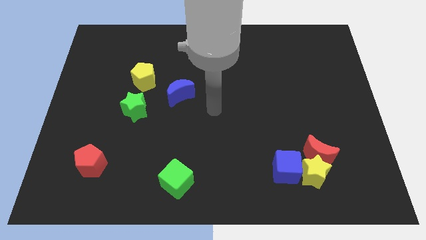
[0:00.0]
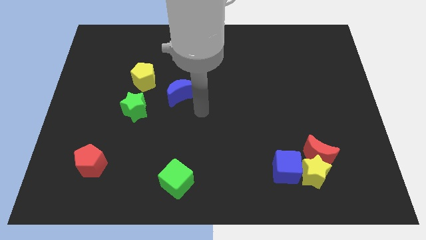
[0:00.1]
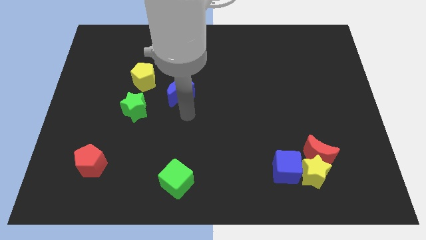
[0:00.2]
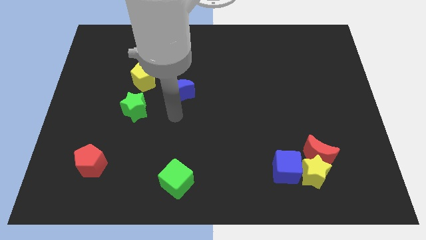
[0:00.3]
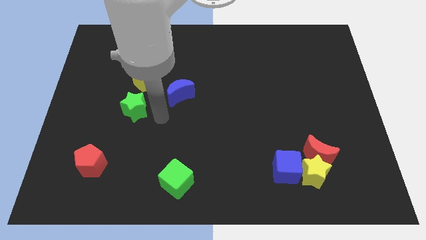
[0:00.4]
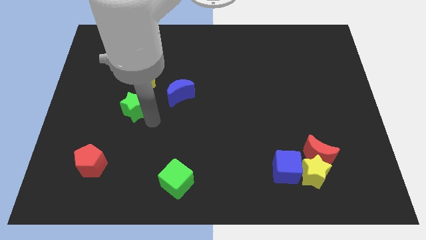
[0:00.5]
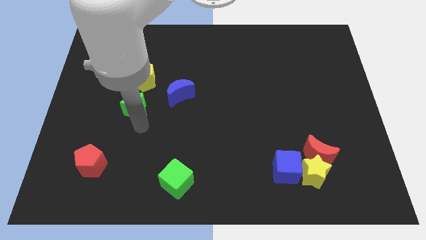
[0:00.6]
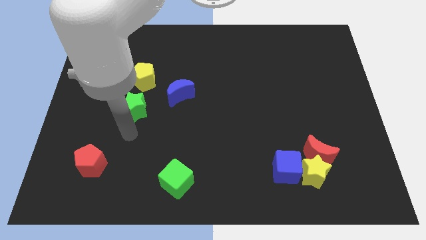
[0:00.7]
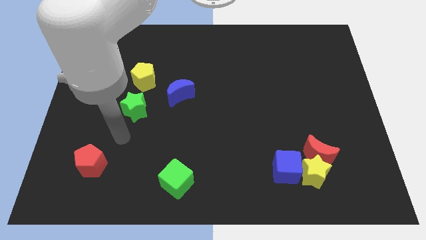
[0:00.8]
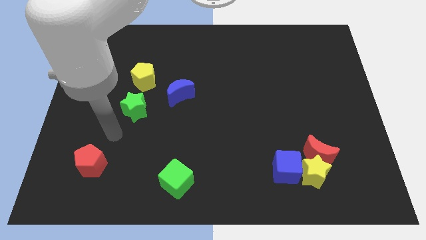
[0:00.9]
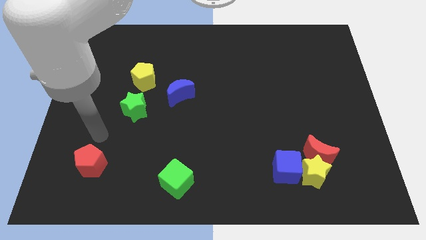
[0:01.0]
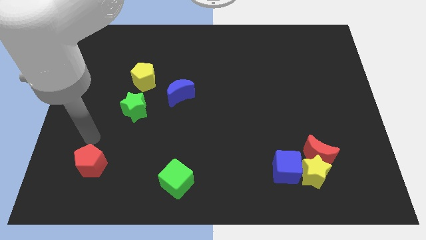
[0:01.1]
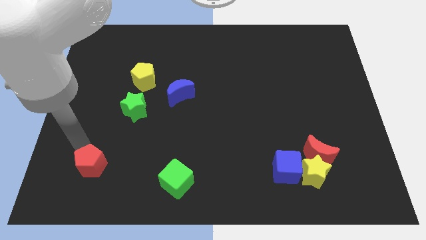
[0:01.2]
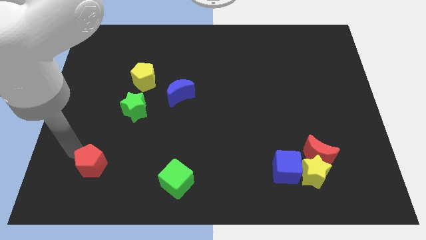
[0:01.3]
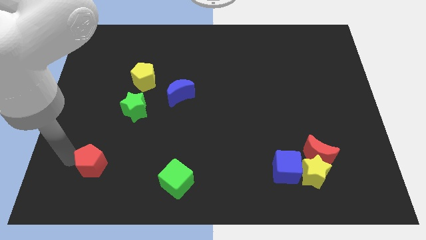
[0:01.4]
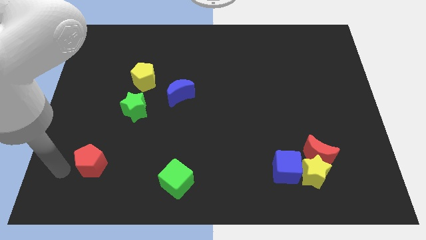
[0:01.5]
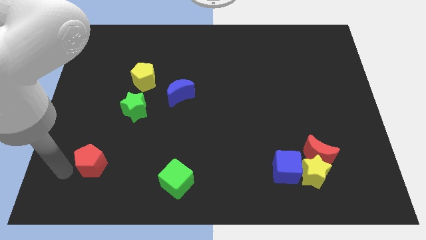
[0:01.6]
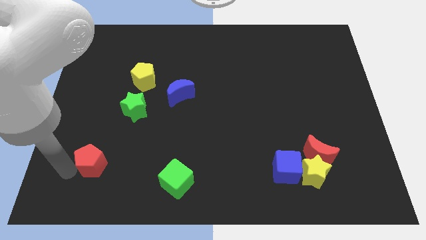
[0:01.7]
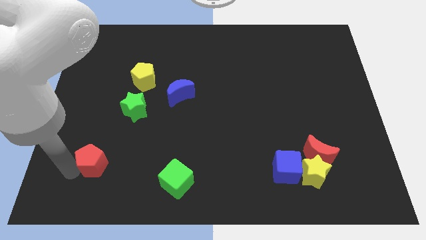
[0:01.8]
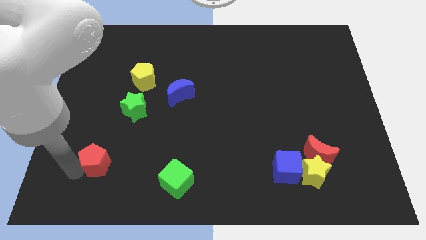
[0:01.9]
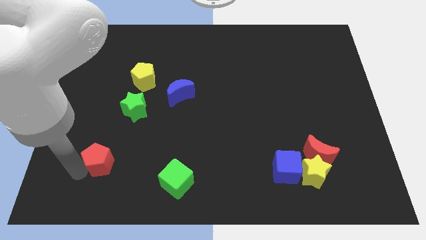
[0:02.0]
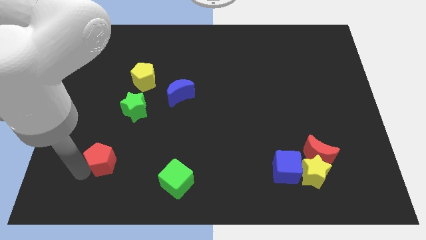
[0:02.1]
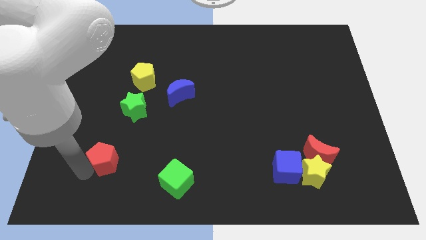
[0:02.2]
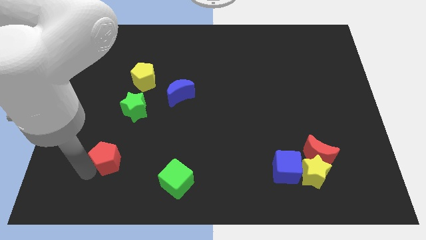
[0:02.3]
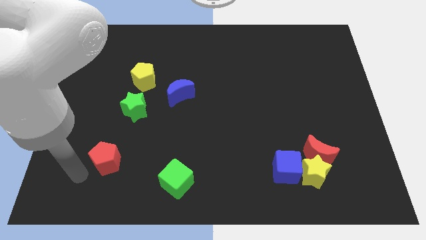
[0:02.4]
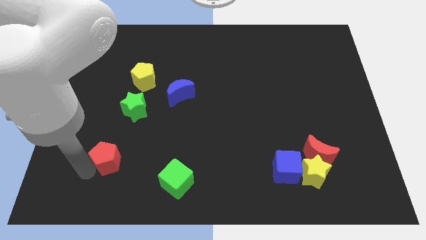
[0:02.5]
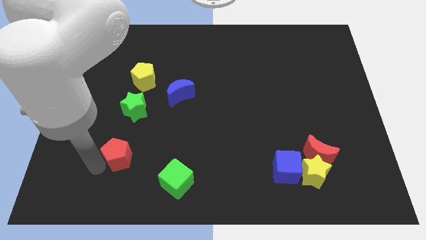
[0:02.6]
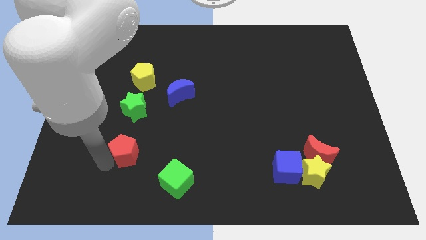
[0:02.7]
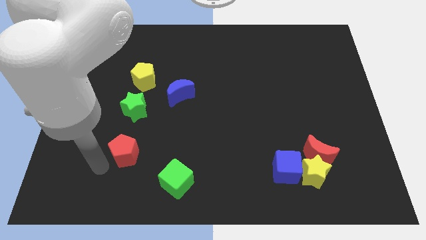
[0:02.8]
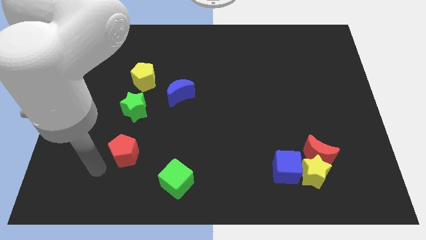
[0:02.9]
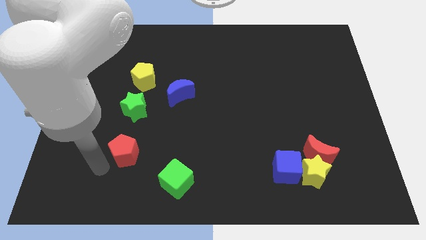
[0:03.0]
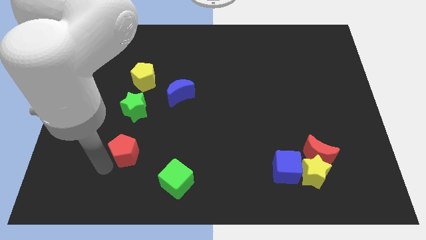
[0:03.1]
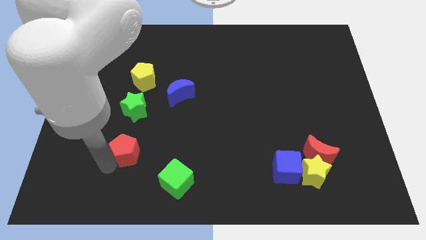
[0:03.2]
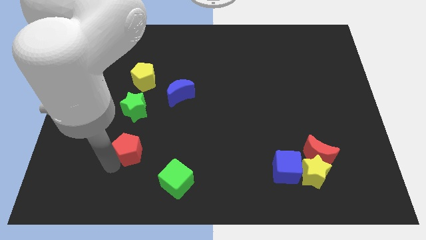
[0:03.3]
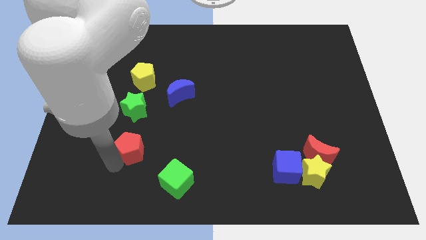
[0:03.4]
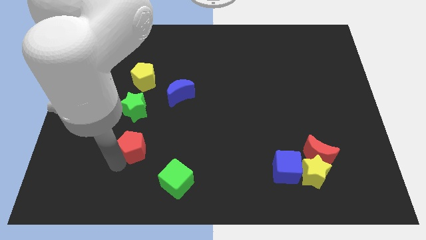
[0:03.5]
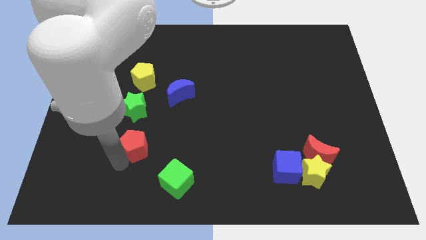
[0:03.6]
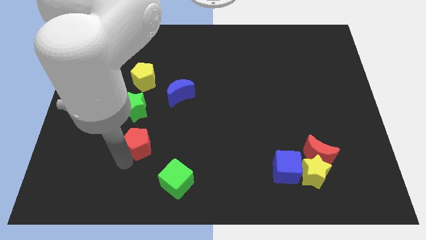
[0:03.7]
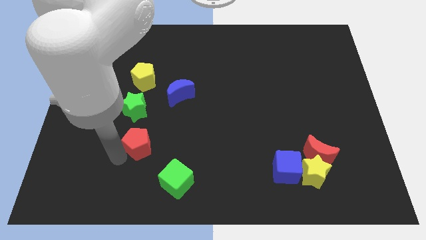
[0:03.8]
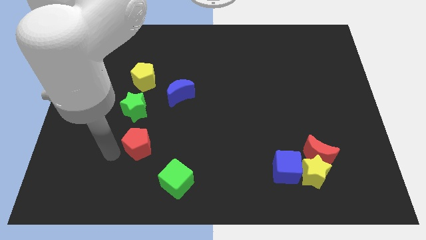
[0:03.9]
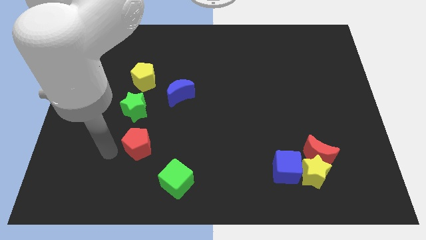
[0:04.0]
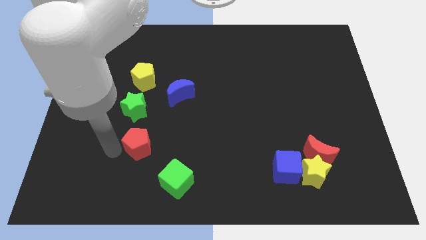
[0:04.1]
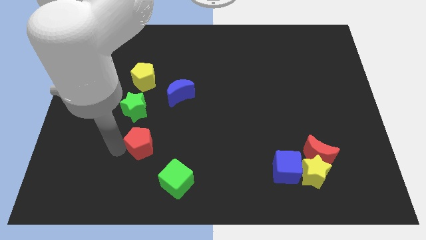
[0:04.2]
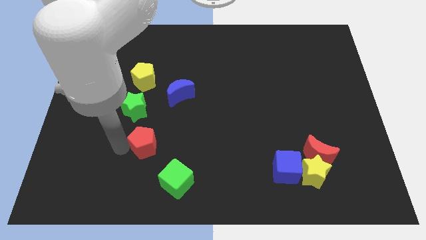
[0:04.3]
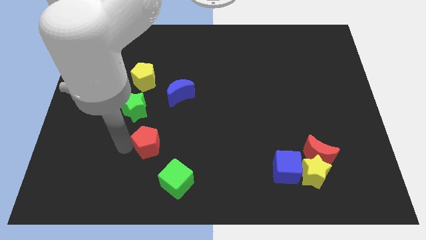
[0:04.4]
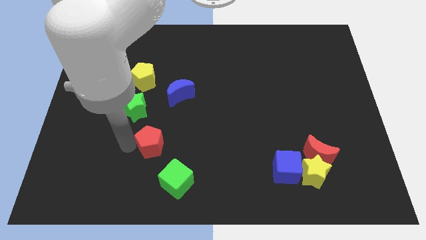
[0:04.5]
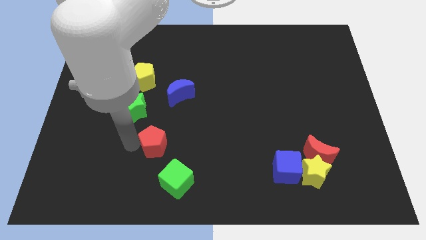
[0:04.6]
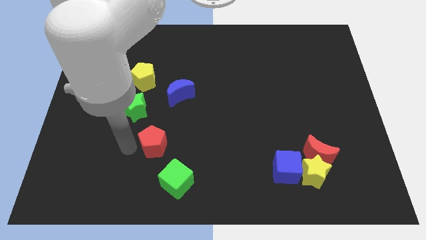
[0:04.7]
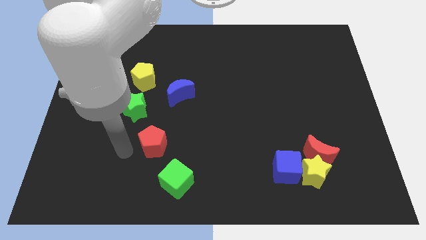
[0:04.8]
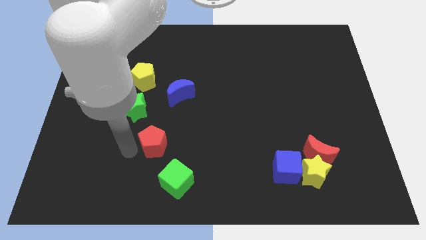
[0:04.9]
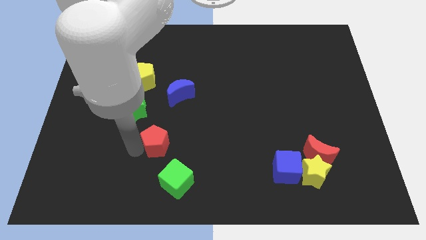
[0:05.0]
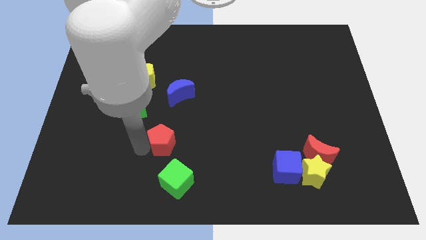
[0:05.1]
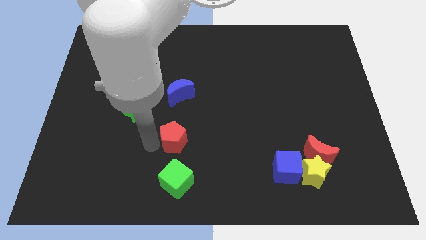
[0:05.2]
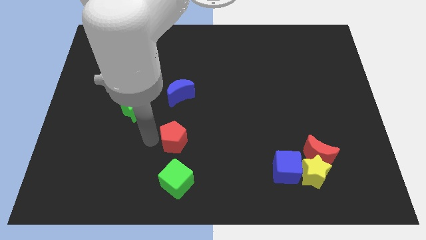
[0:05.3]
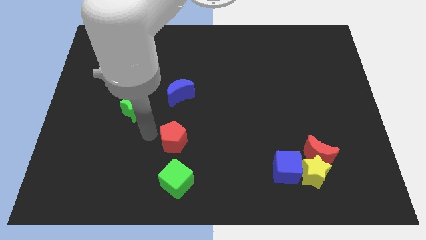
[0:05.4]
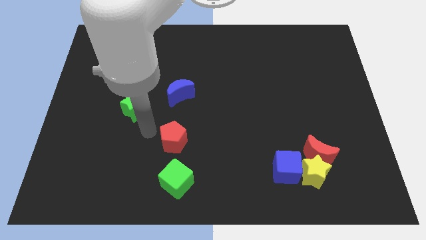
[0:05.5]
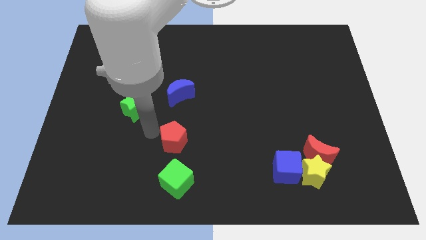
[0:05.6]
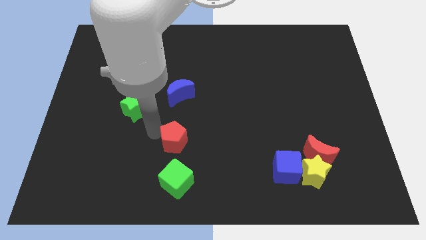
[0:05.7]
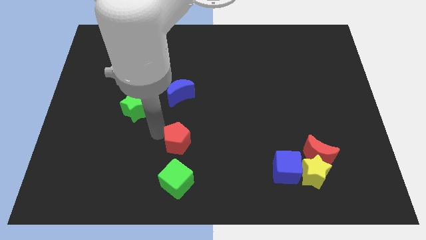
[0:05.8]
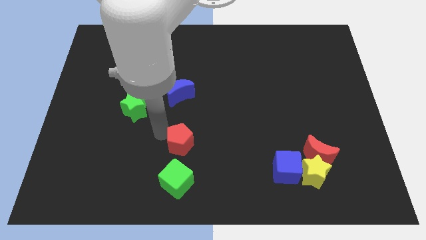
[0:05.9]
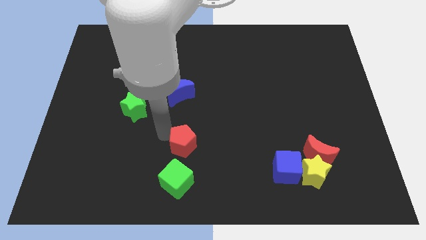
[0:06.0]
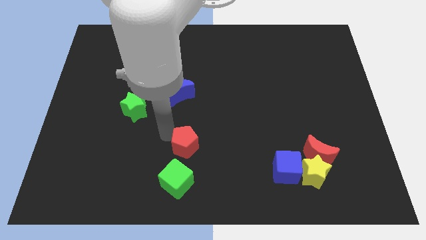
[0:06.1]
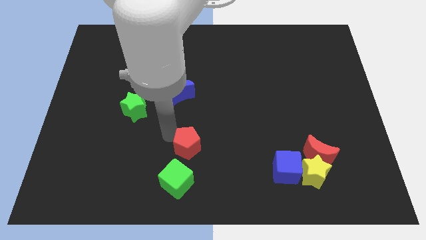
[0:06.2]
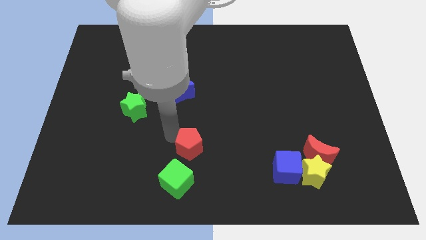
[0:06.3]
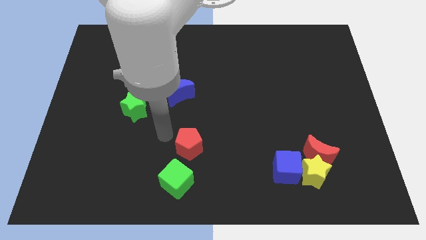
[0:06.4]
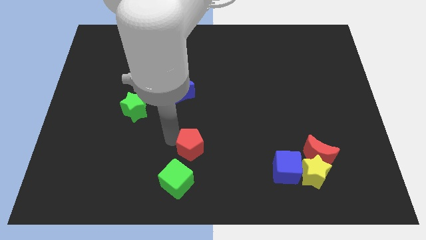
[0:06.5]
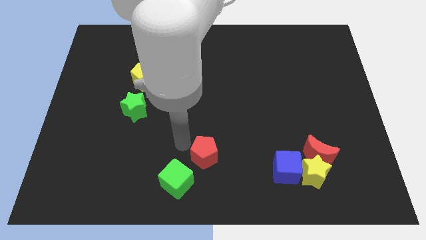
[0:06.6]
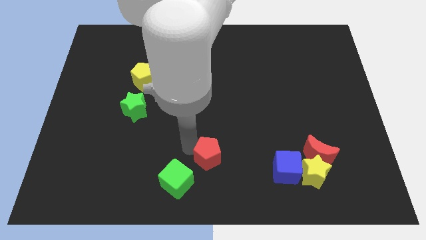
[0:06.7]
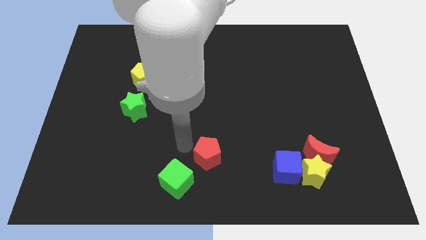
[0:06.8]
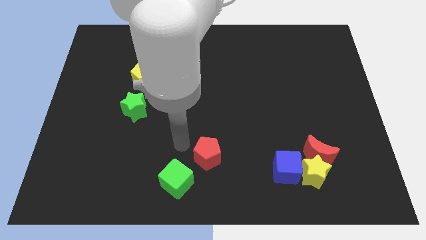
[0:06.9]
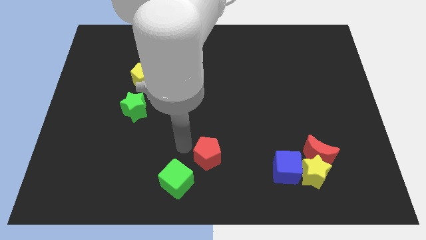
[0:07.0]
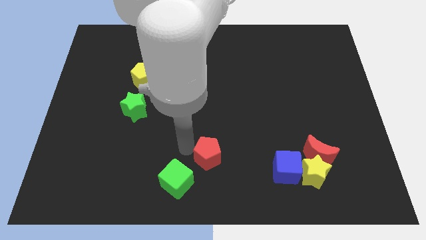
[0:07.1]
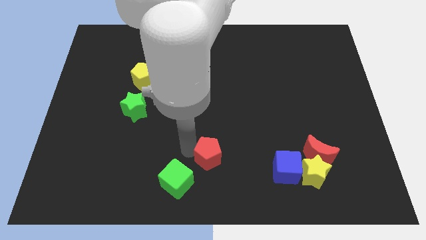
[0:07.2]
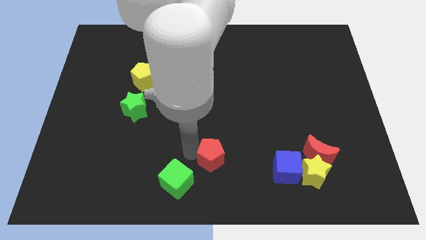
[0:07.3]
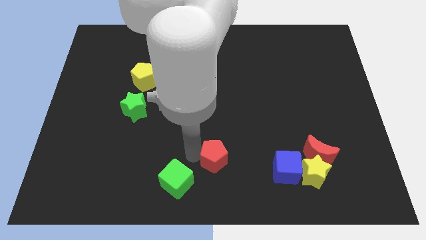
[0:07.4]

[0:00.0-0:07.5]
slide the red pentagon to the left of the blue cube
